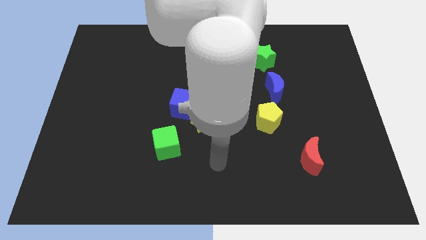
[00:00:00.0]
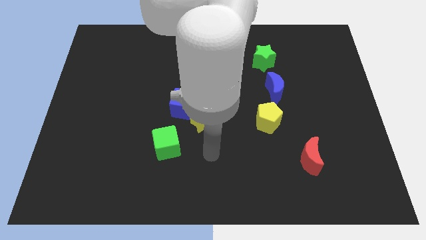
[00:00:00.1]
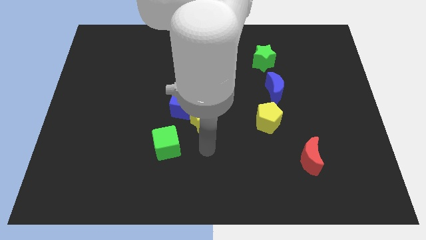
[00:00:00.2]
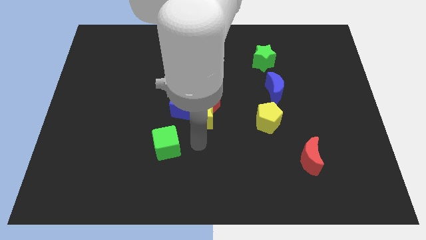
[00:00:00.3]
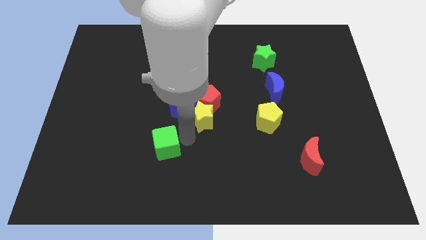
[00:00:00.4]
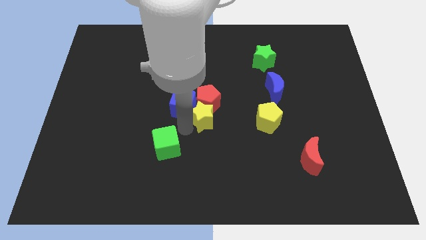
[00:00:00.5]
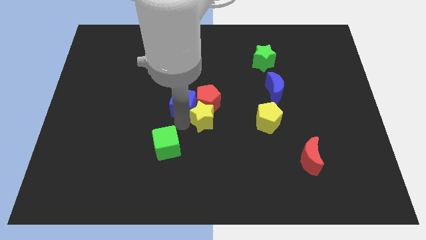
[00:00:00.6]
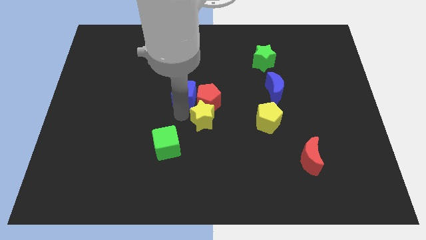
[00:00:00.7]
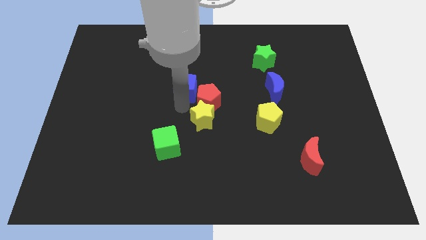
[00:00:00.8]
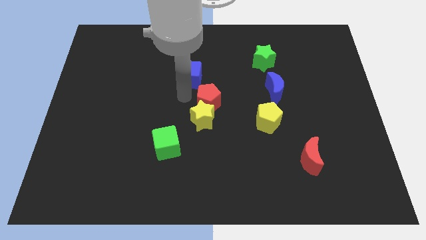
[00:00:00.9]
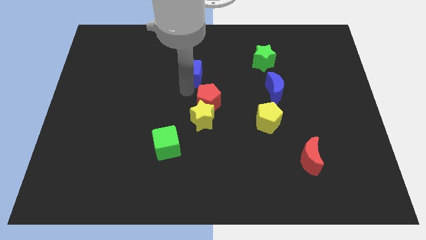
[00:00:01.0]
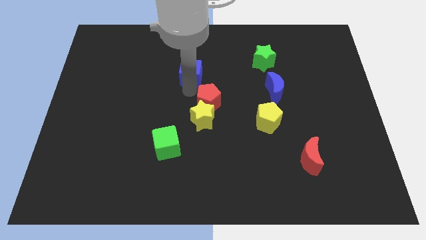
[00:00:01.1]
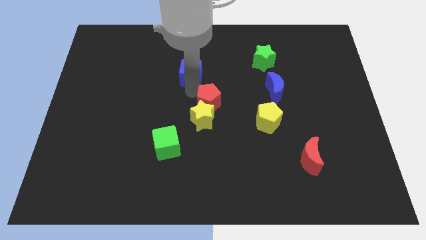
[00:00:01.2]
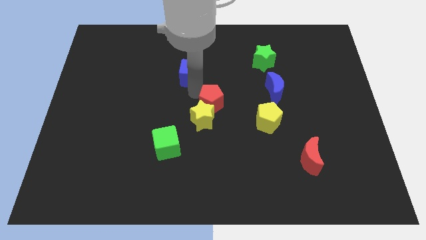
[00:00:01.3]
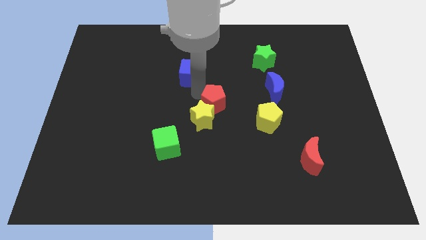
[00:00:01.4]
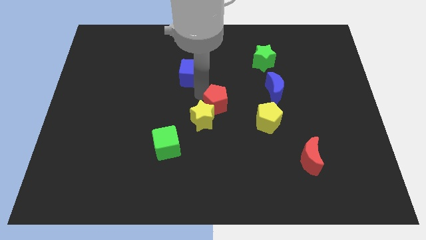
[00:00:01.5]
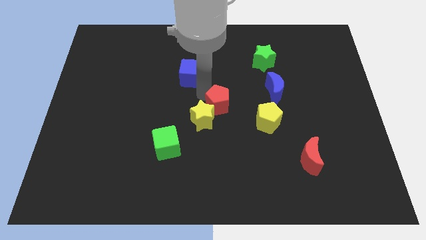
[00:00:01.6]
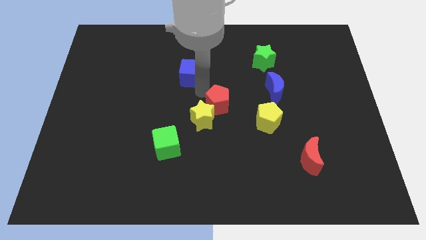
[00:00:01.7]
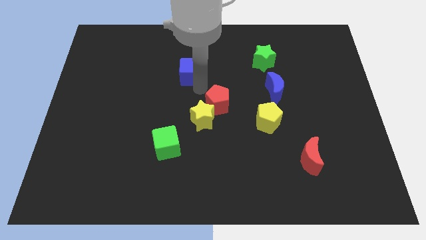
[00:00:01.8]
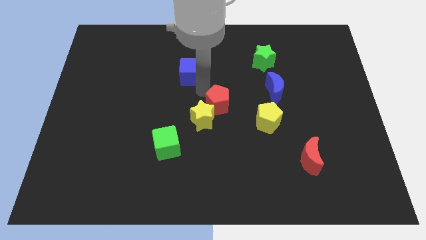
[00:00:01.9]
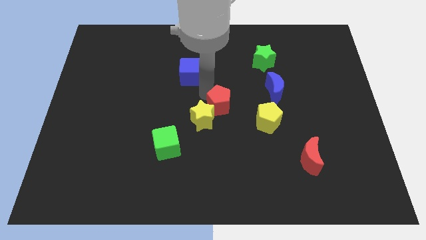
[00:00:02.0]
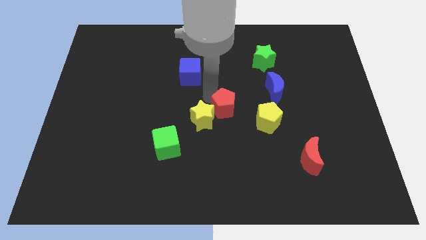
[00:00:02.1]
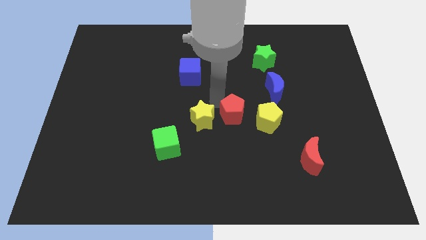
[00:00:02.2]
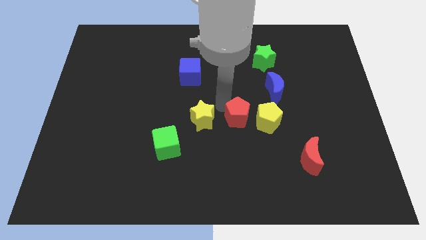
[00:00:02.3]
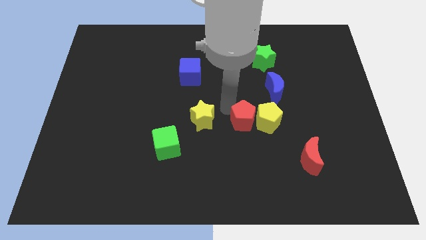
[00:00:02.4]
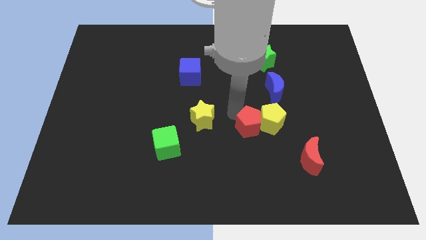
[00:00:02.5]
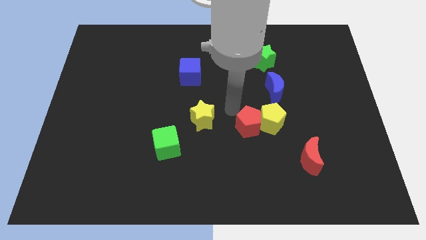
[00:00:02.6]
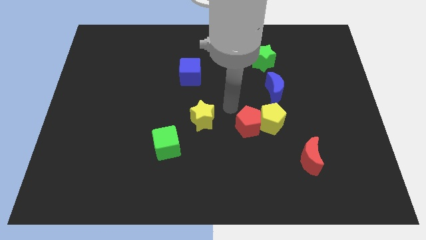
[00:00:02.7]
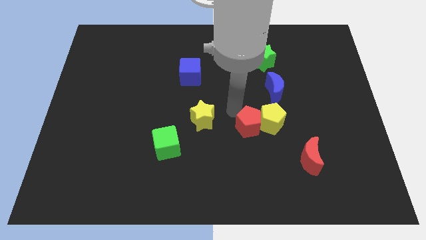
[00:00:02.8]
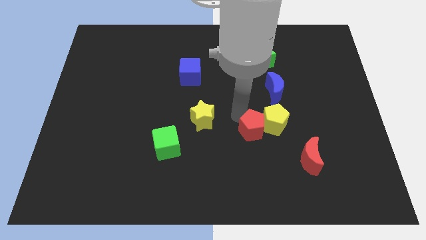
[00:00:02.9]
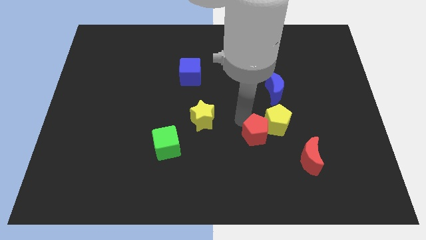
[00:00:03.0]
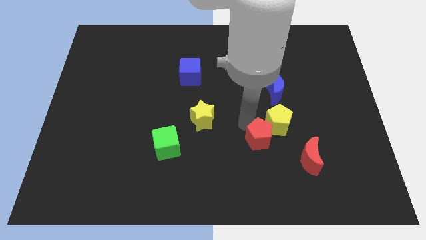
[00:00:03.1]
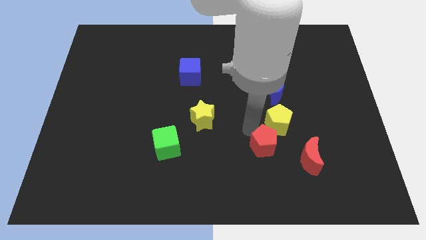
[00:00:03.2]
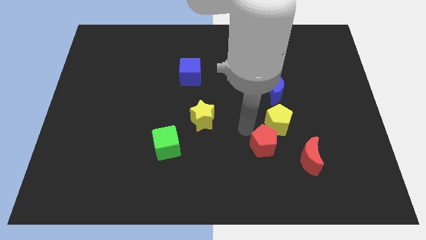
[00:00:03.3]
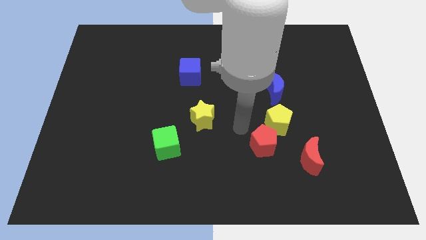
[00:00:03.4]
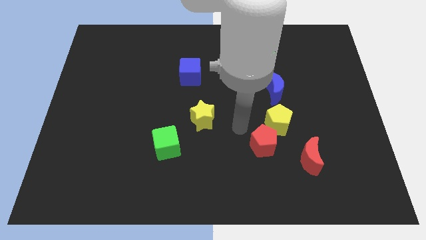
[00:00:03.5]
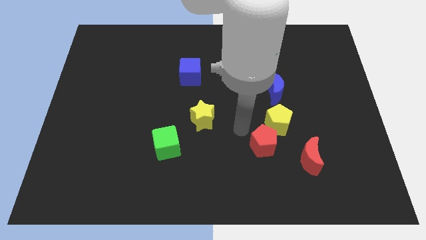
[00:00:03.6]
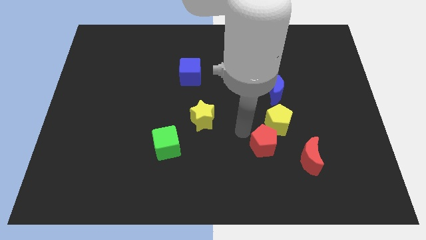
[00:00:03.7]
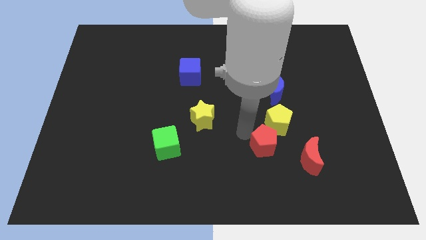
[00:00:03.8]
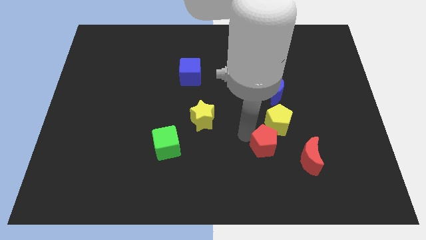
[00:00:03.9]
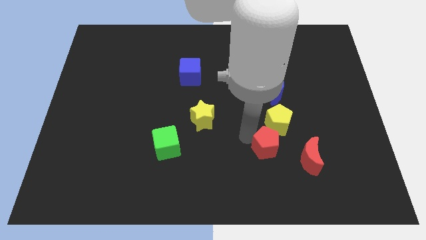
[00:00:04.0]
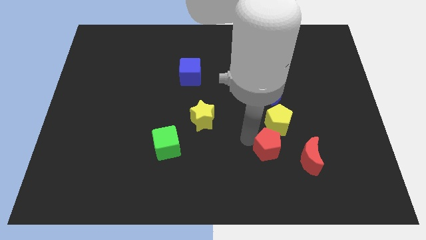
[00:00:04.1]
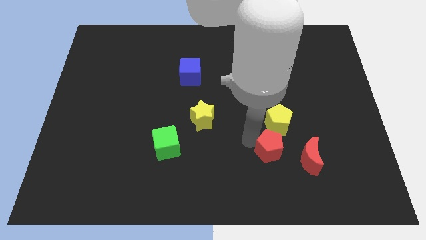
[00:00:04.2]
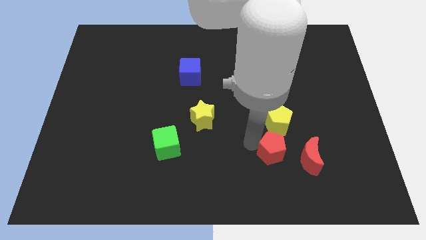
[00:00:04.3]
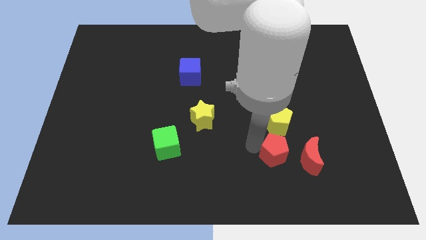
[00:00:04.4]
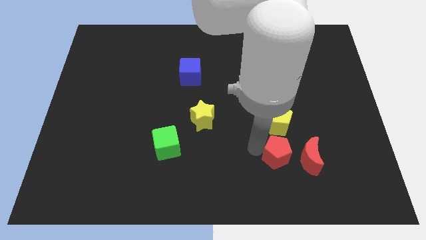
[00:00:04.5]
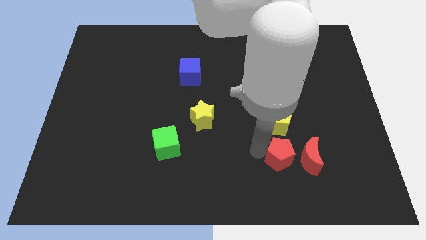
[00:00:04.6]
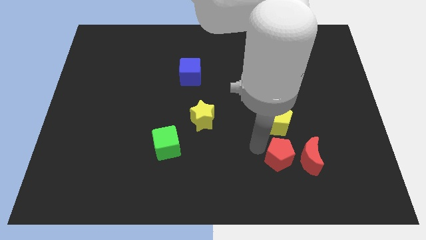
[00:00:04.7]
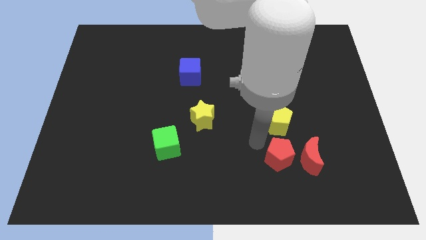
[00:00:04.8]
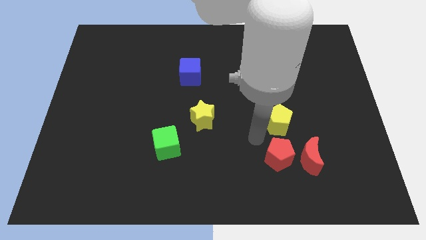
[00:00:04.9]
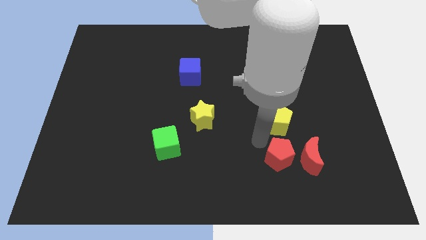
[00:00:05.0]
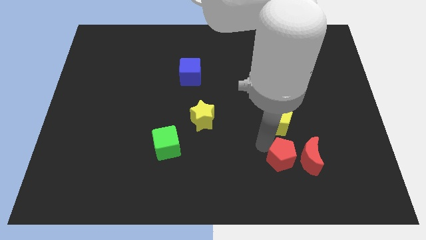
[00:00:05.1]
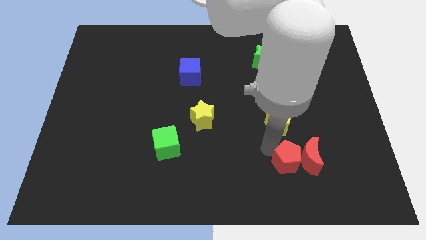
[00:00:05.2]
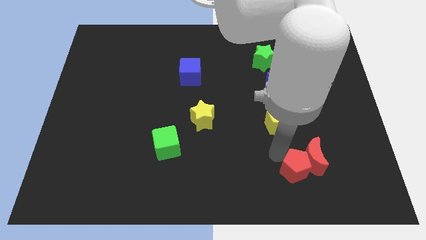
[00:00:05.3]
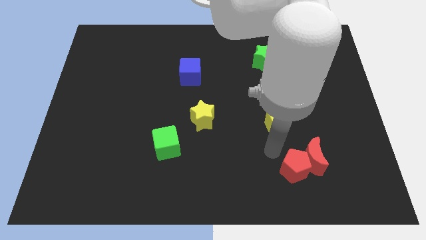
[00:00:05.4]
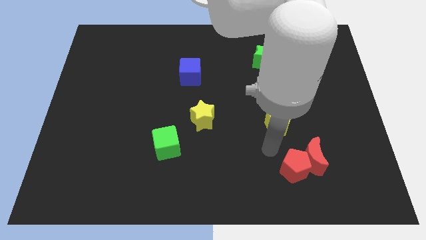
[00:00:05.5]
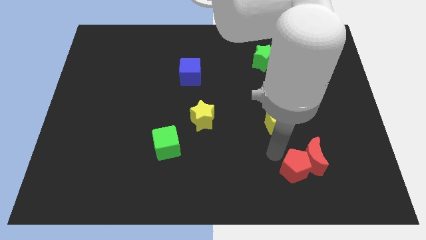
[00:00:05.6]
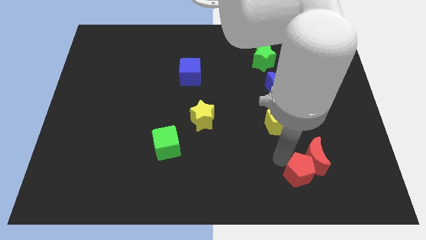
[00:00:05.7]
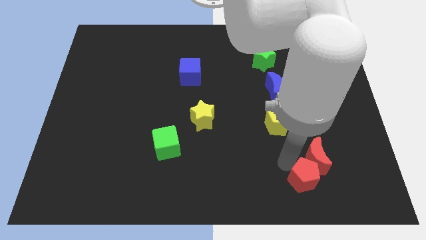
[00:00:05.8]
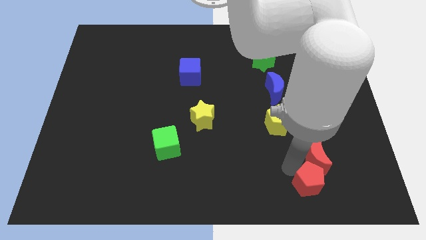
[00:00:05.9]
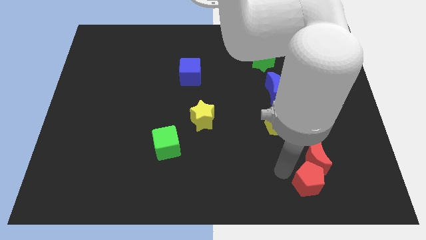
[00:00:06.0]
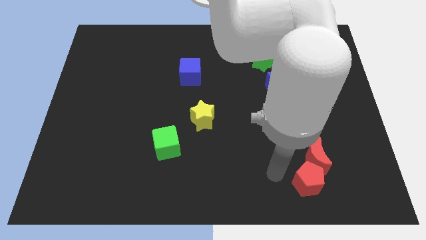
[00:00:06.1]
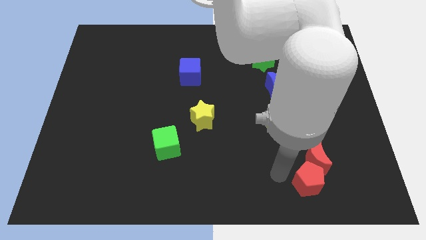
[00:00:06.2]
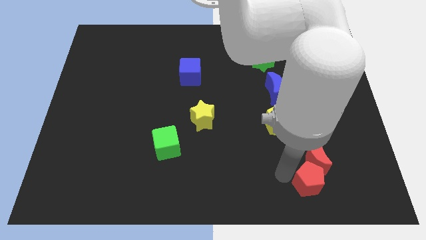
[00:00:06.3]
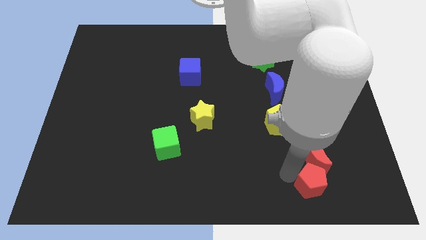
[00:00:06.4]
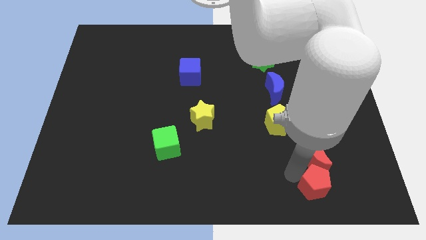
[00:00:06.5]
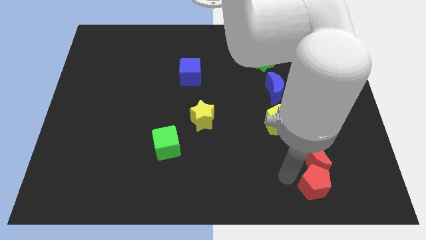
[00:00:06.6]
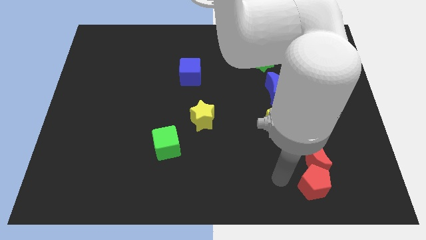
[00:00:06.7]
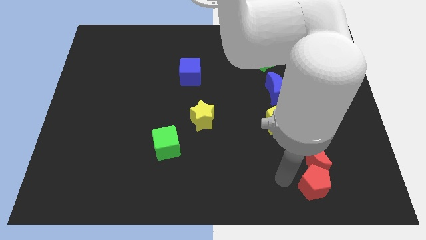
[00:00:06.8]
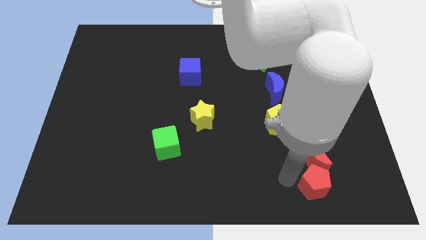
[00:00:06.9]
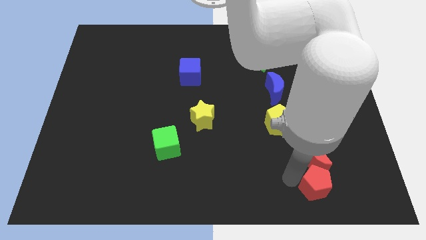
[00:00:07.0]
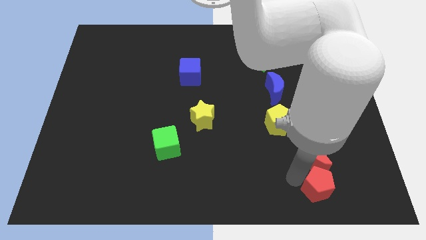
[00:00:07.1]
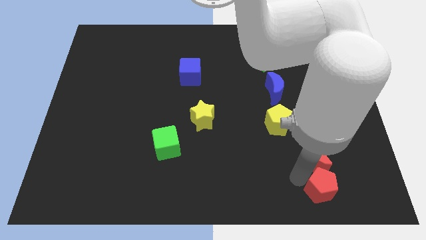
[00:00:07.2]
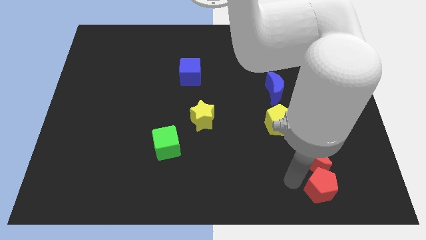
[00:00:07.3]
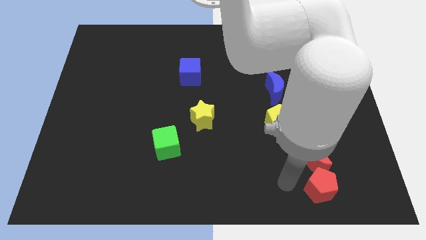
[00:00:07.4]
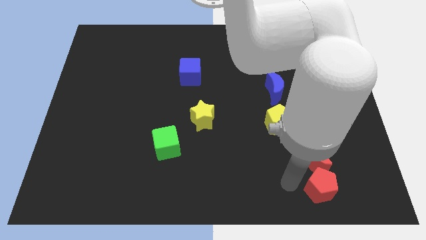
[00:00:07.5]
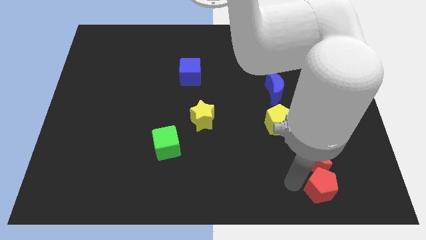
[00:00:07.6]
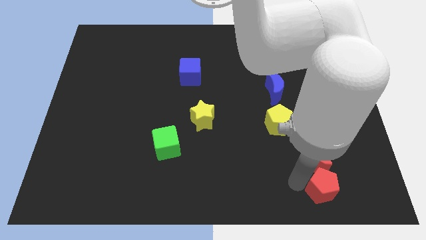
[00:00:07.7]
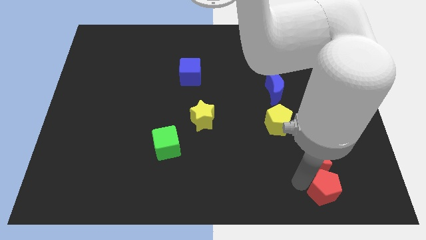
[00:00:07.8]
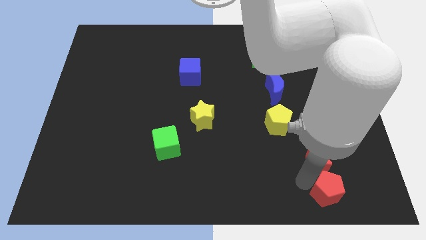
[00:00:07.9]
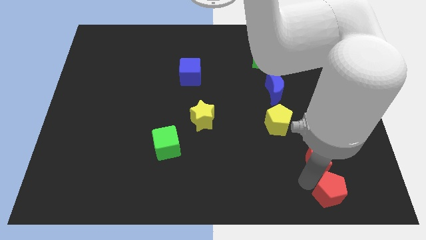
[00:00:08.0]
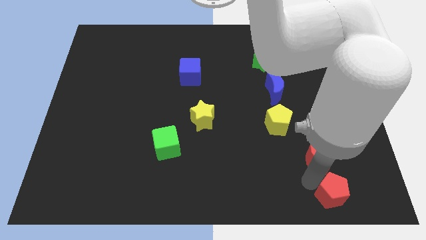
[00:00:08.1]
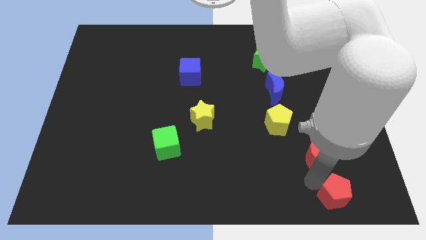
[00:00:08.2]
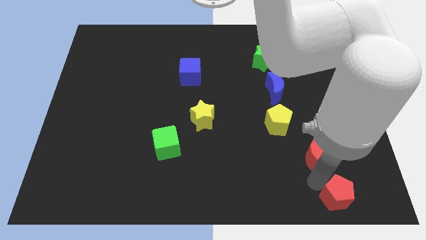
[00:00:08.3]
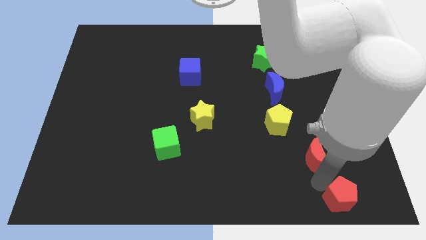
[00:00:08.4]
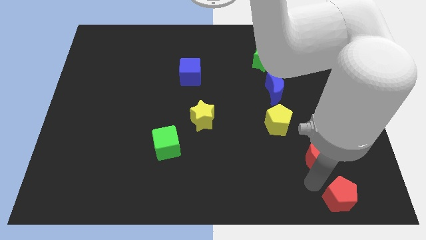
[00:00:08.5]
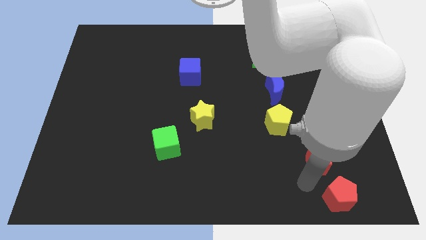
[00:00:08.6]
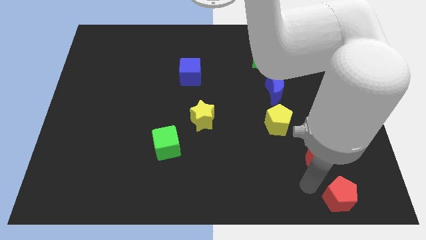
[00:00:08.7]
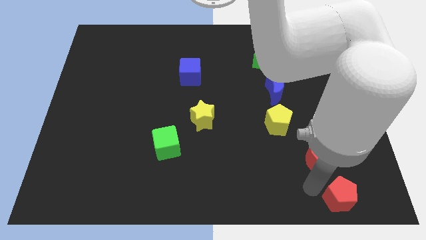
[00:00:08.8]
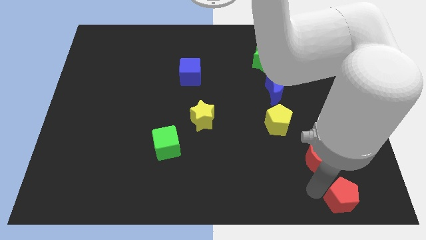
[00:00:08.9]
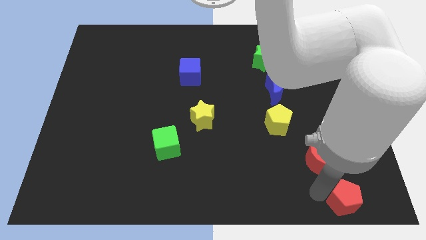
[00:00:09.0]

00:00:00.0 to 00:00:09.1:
put the red pentagon to the lower right corner
